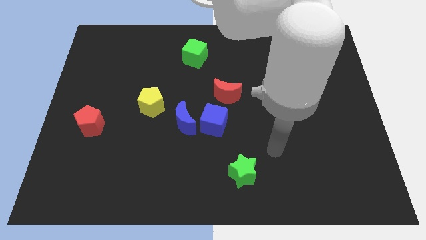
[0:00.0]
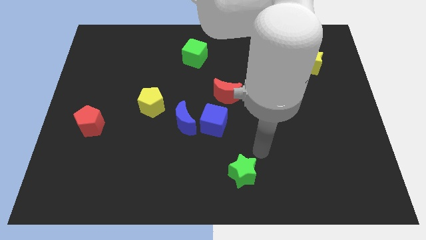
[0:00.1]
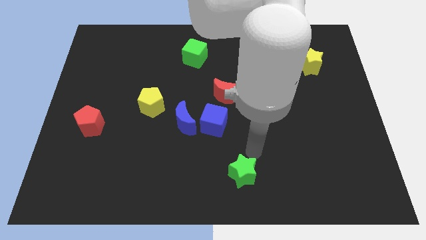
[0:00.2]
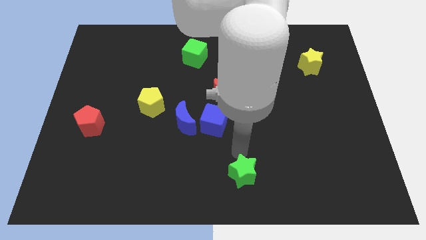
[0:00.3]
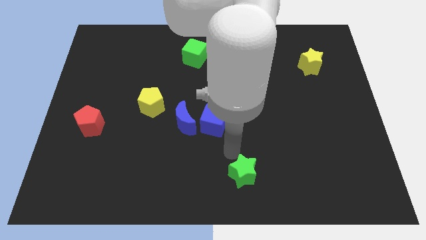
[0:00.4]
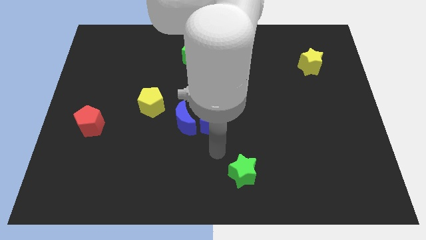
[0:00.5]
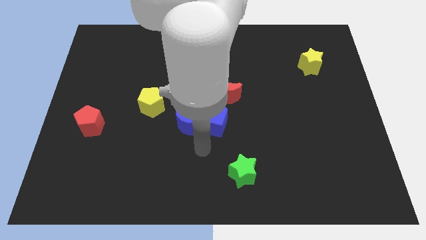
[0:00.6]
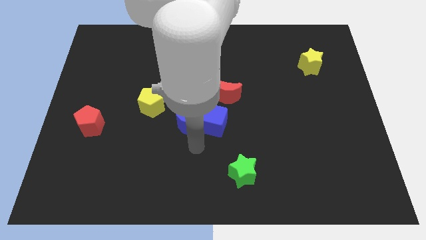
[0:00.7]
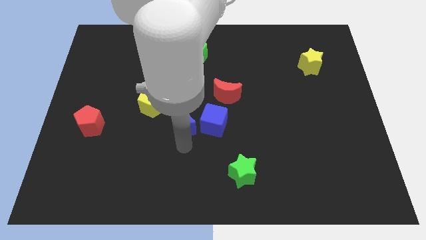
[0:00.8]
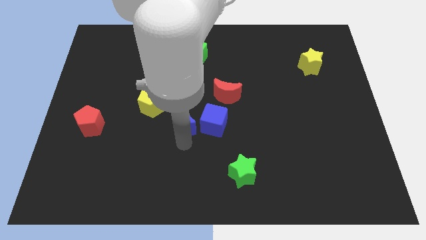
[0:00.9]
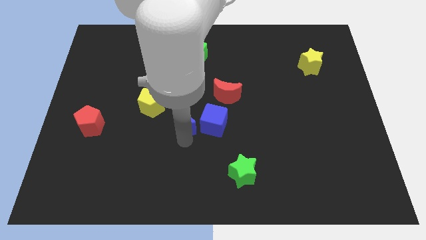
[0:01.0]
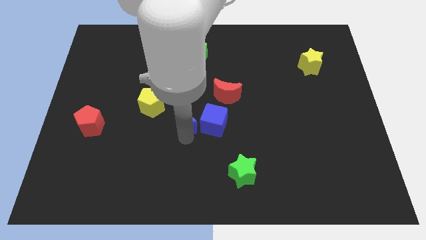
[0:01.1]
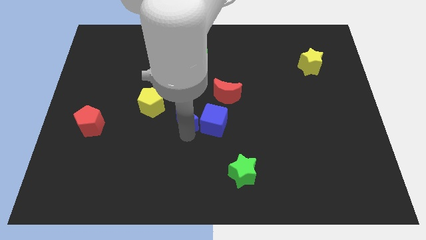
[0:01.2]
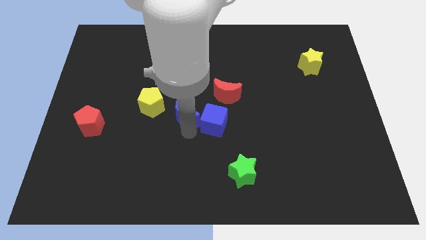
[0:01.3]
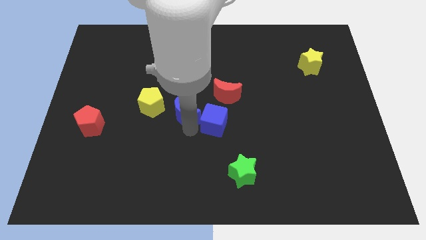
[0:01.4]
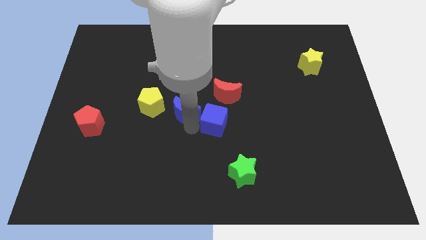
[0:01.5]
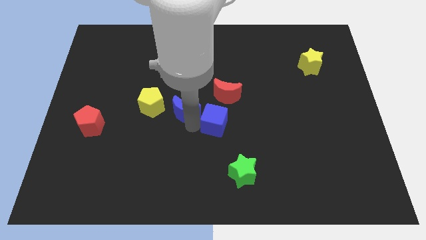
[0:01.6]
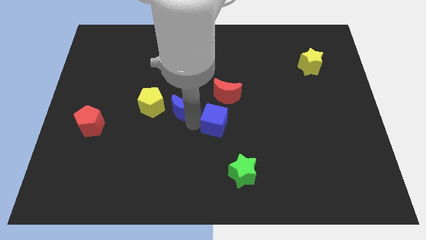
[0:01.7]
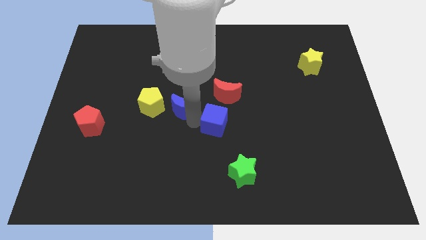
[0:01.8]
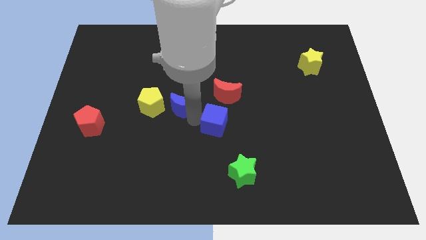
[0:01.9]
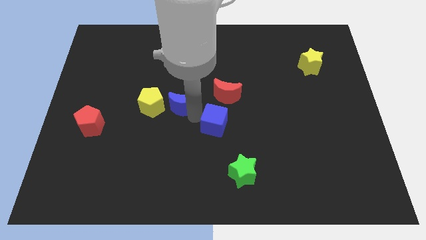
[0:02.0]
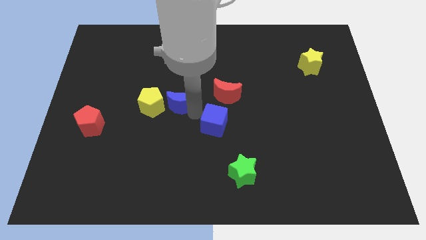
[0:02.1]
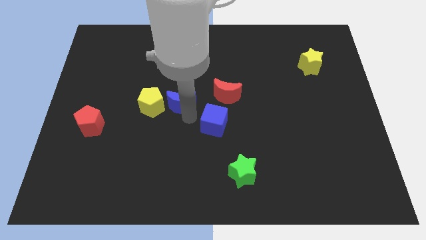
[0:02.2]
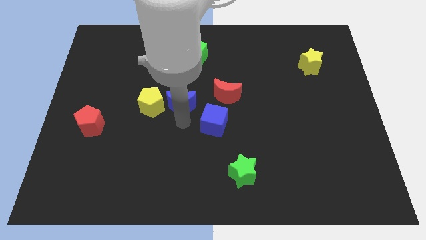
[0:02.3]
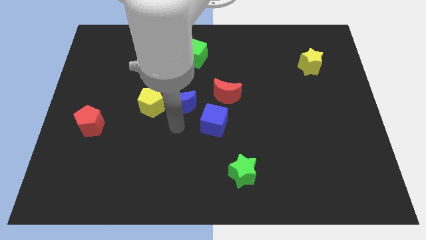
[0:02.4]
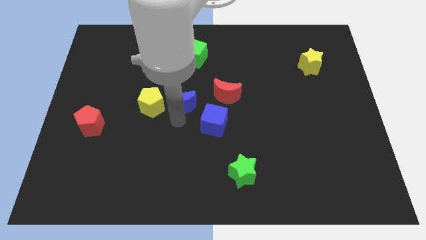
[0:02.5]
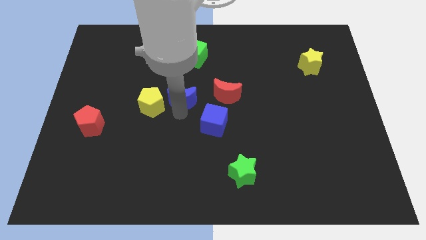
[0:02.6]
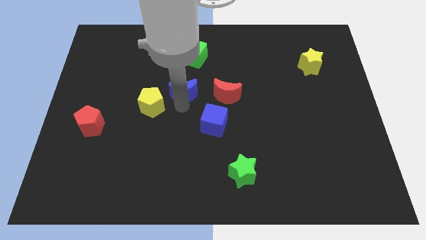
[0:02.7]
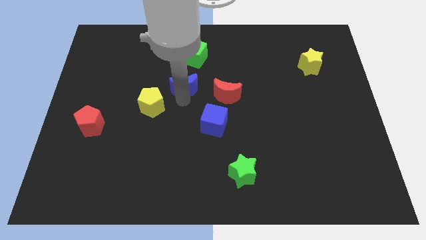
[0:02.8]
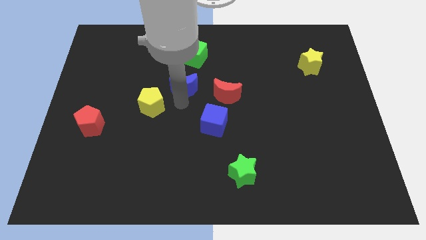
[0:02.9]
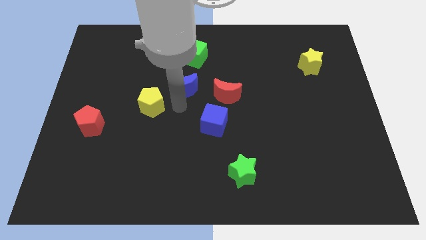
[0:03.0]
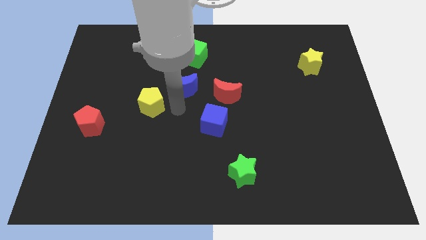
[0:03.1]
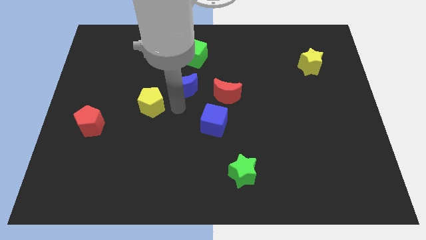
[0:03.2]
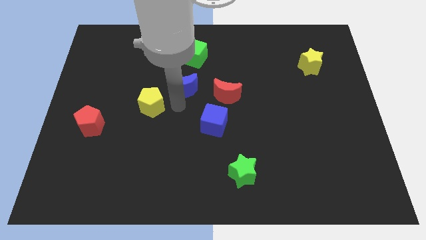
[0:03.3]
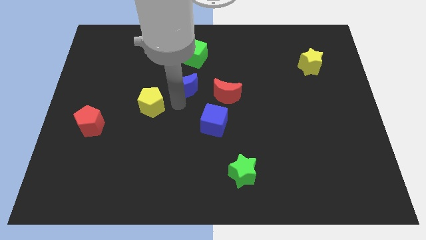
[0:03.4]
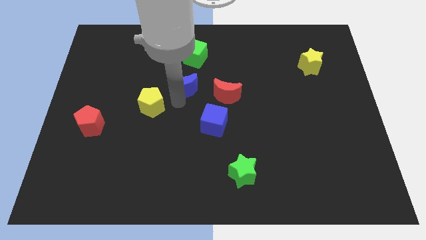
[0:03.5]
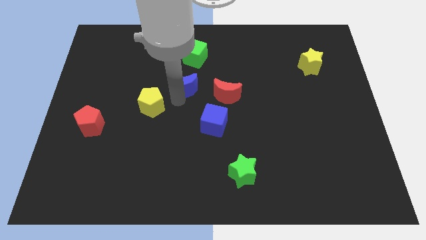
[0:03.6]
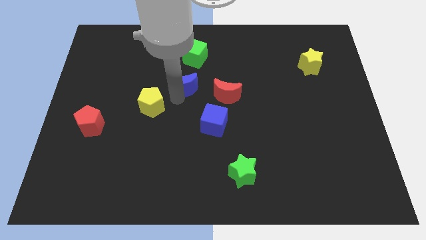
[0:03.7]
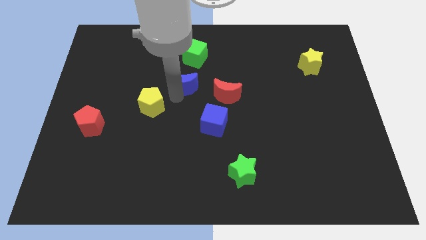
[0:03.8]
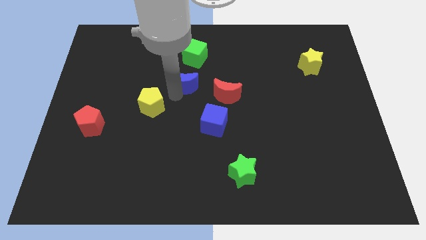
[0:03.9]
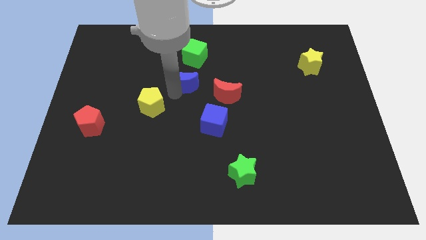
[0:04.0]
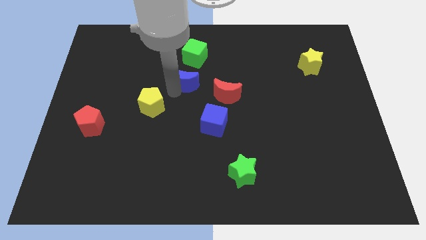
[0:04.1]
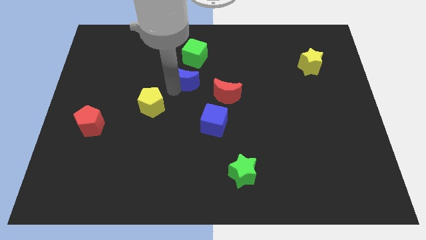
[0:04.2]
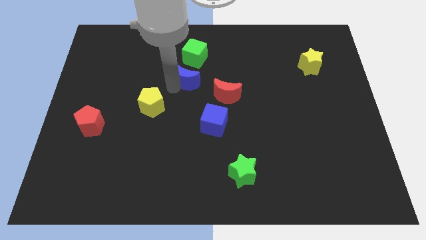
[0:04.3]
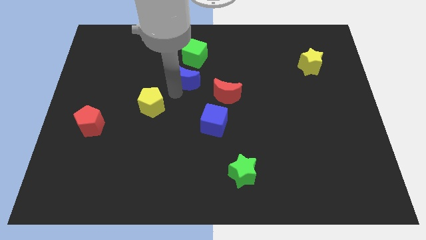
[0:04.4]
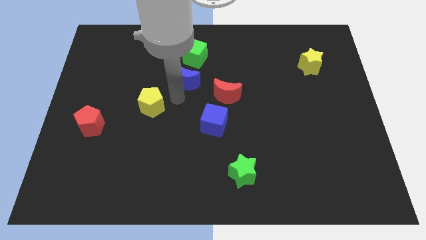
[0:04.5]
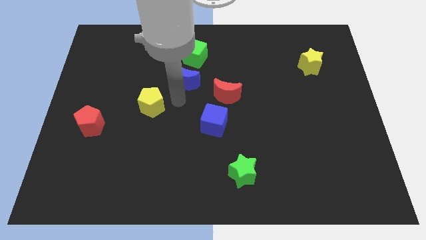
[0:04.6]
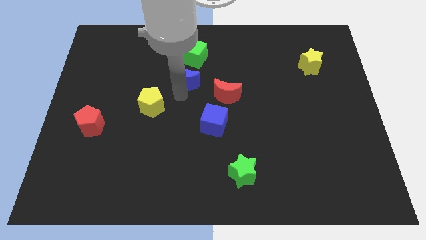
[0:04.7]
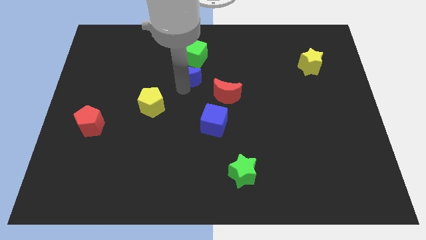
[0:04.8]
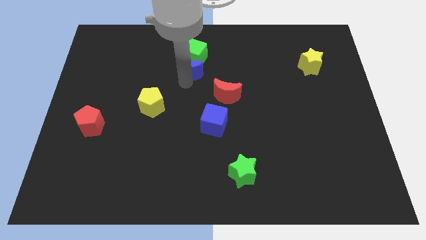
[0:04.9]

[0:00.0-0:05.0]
push the blue moon to the green cube
